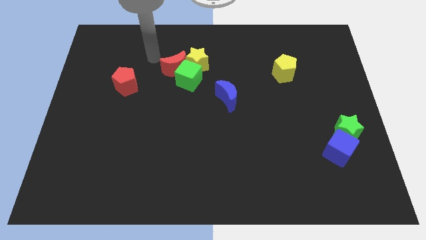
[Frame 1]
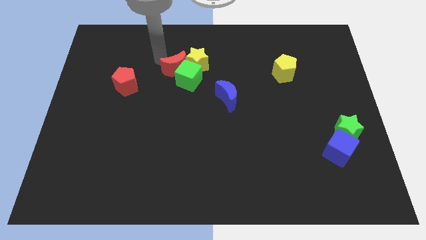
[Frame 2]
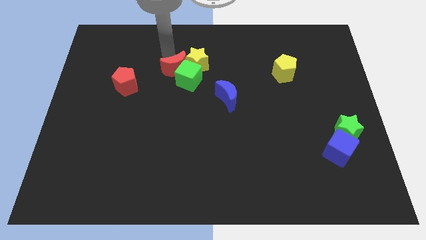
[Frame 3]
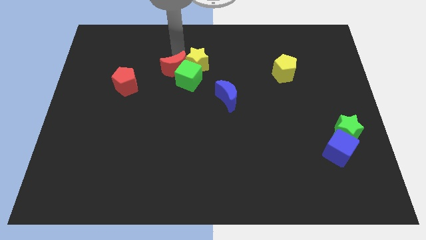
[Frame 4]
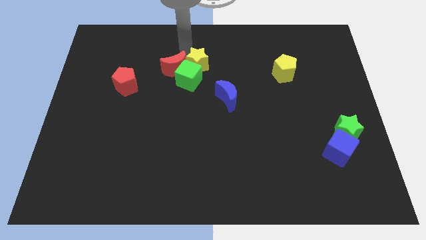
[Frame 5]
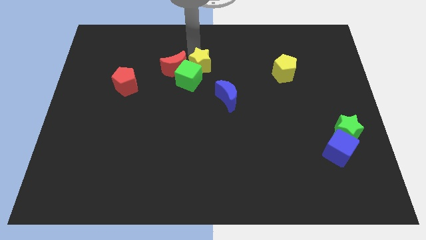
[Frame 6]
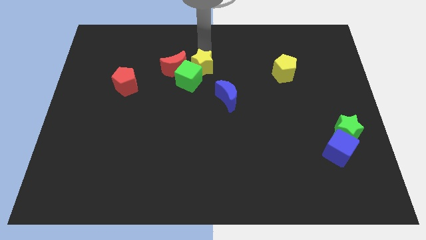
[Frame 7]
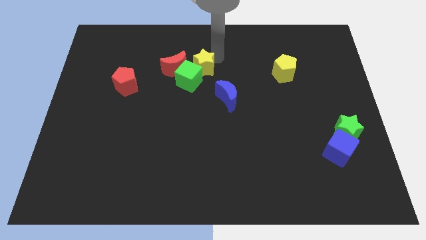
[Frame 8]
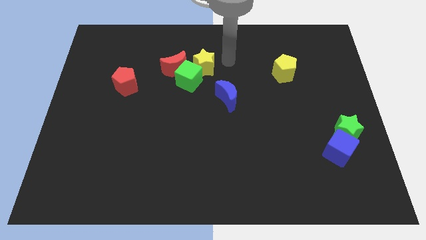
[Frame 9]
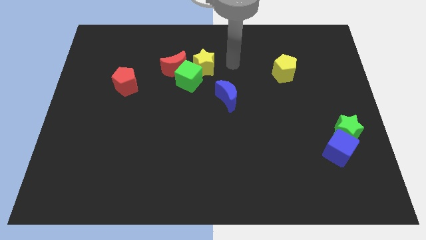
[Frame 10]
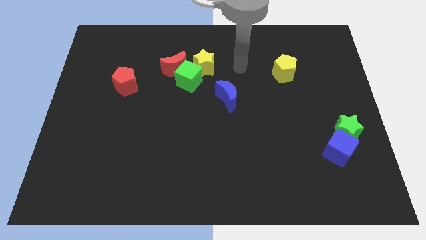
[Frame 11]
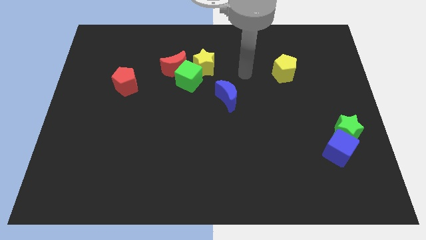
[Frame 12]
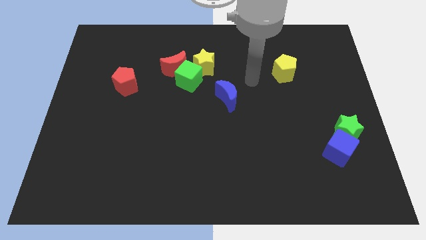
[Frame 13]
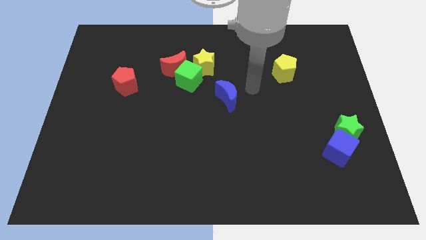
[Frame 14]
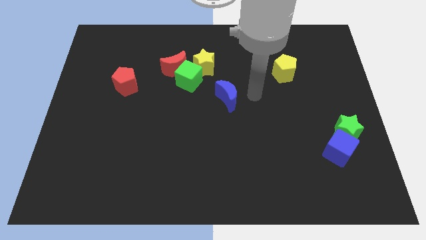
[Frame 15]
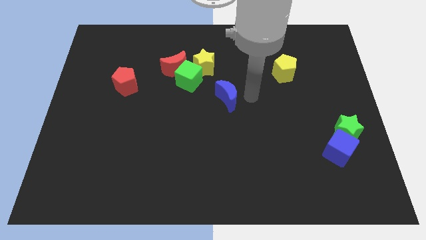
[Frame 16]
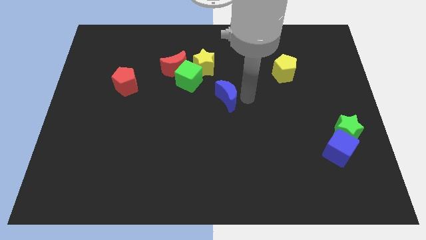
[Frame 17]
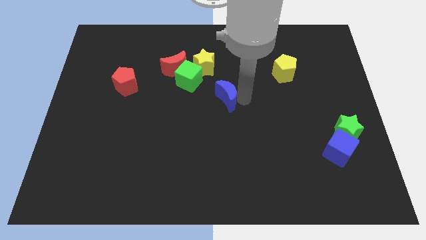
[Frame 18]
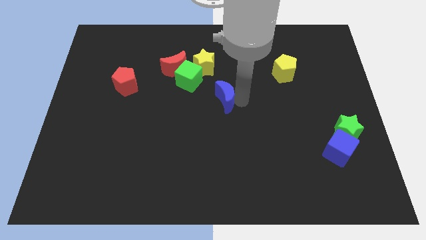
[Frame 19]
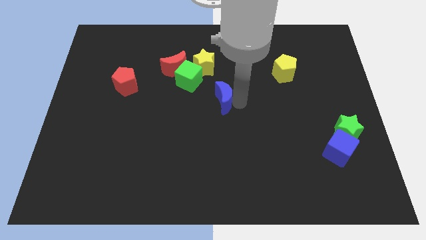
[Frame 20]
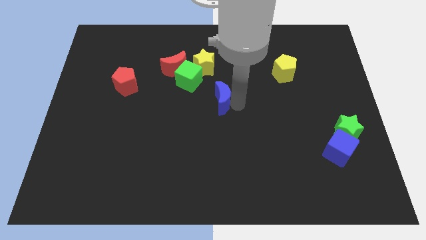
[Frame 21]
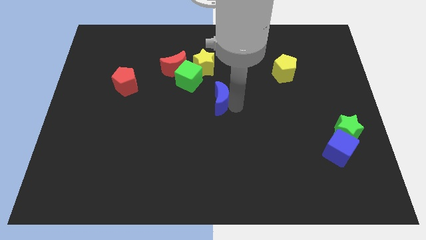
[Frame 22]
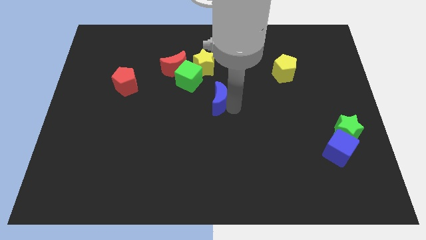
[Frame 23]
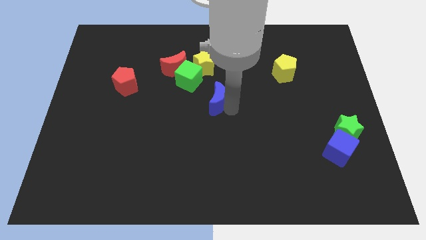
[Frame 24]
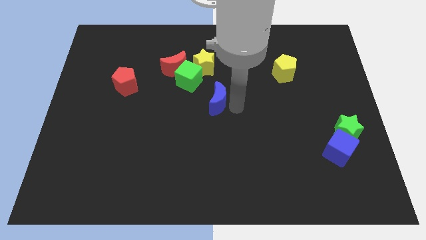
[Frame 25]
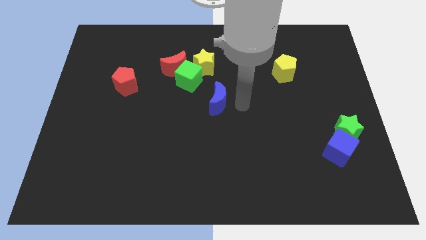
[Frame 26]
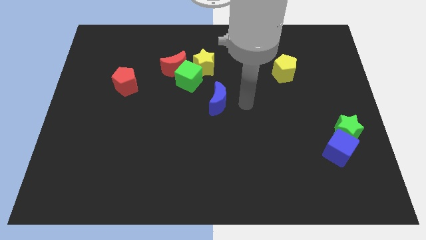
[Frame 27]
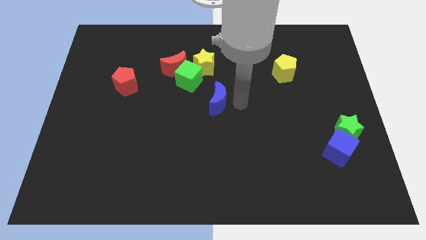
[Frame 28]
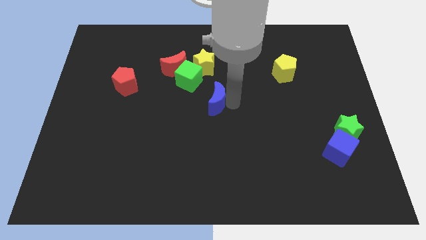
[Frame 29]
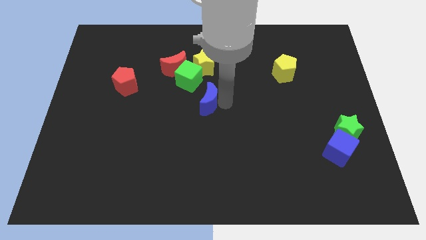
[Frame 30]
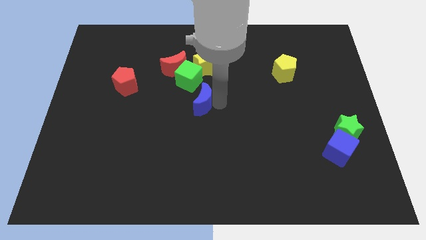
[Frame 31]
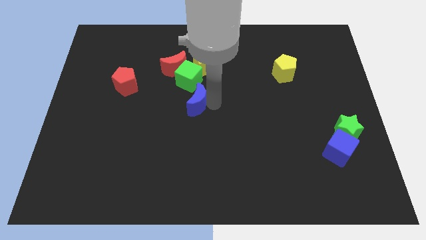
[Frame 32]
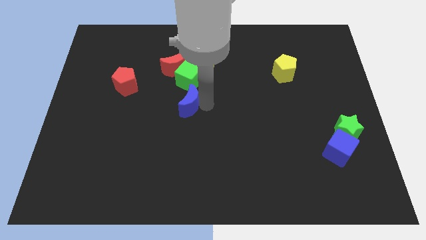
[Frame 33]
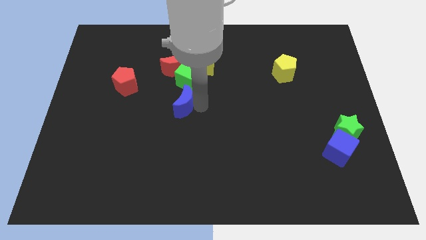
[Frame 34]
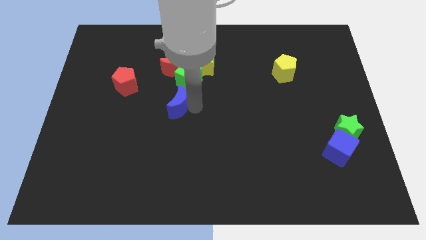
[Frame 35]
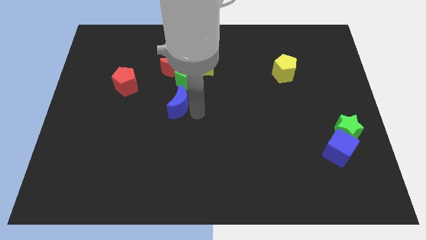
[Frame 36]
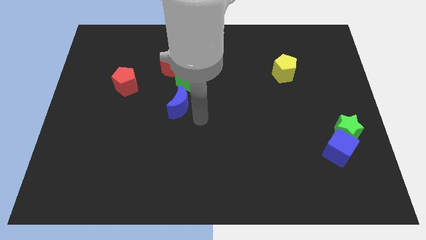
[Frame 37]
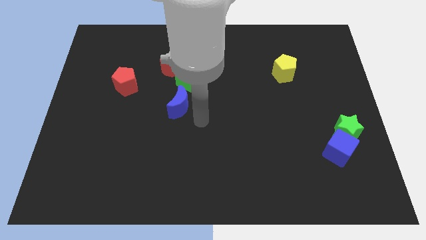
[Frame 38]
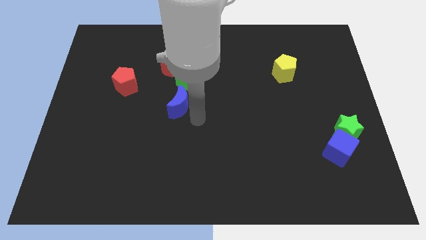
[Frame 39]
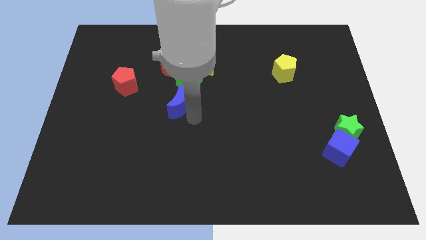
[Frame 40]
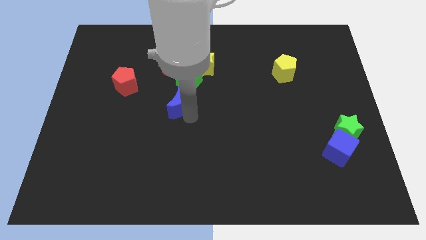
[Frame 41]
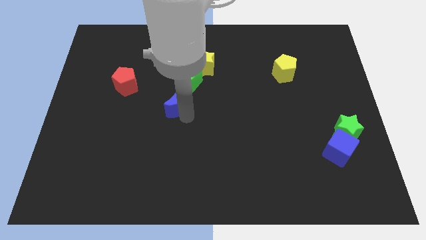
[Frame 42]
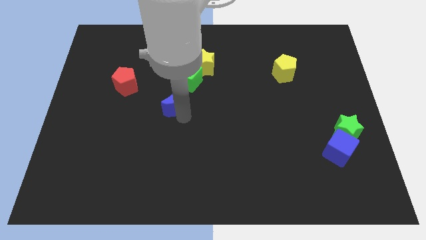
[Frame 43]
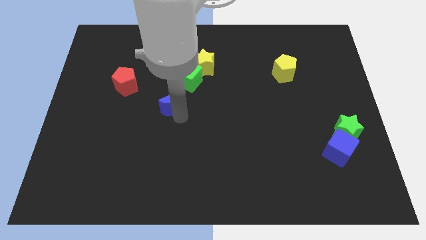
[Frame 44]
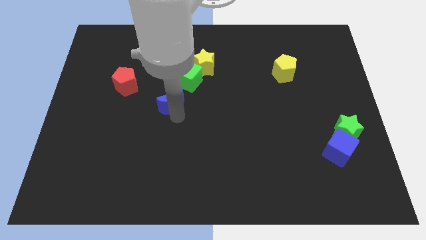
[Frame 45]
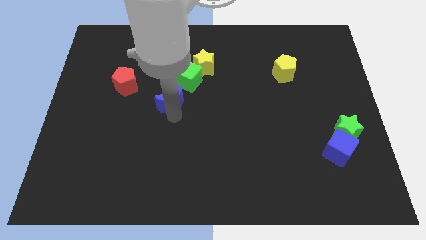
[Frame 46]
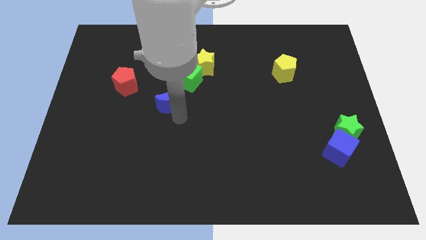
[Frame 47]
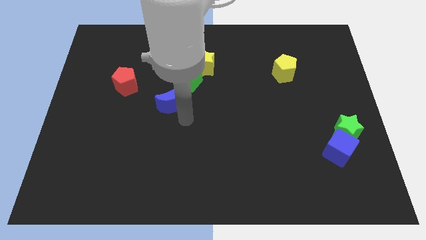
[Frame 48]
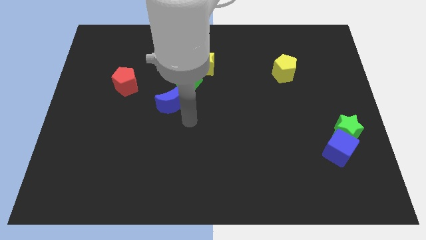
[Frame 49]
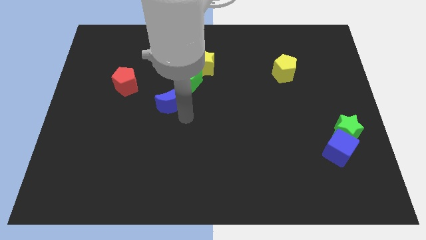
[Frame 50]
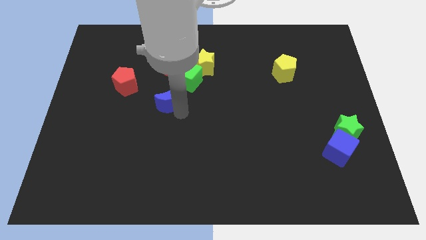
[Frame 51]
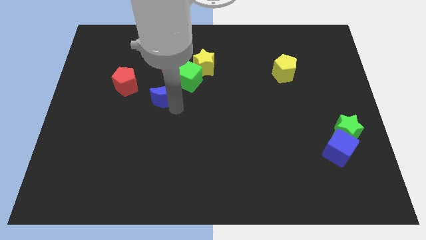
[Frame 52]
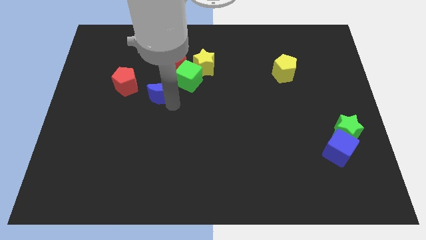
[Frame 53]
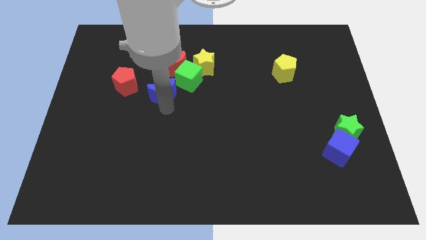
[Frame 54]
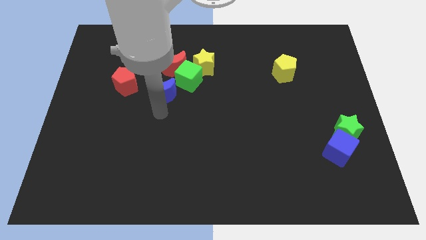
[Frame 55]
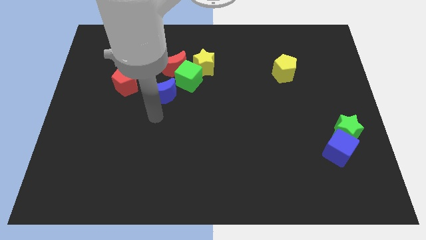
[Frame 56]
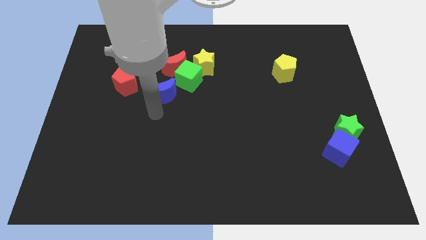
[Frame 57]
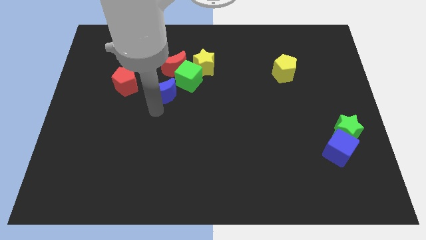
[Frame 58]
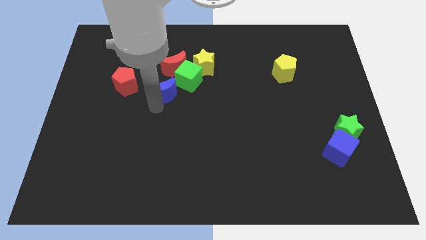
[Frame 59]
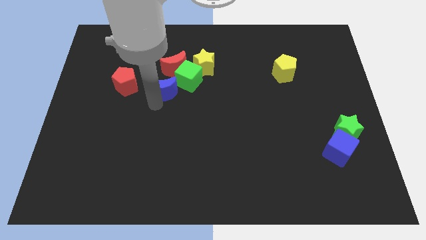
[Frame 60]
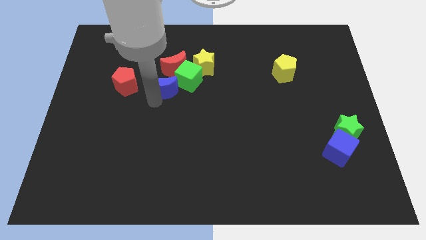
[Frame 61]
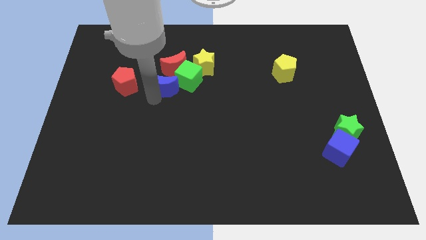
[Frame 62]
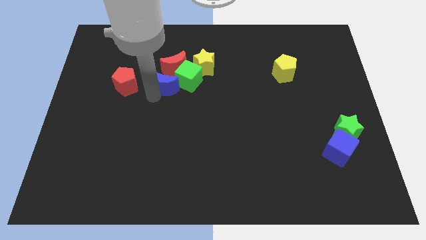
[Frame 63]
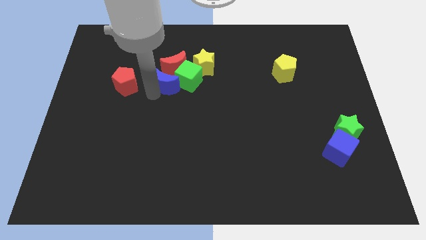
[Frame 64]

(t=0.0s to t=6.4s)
move the blue moon close to the red moon

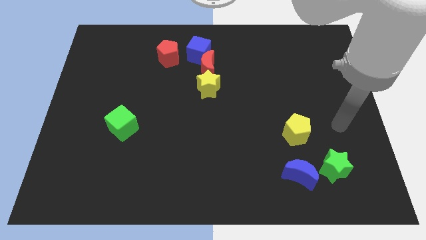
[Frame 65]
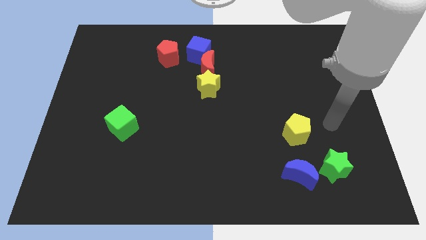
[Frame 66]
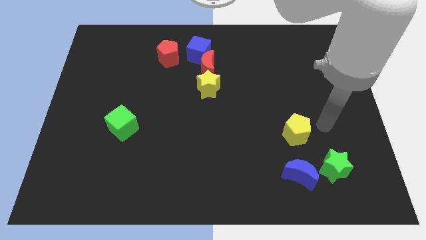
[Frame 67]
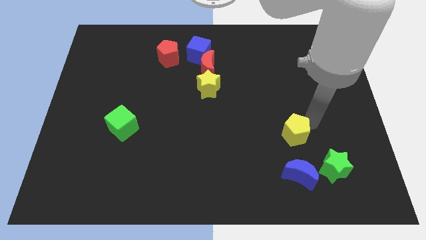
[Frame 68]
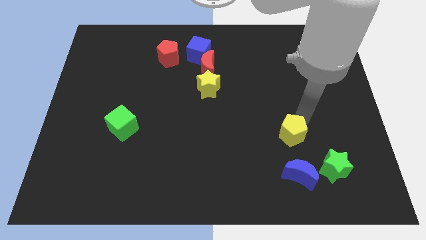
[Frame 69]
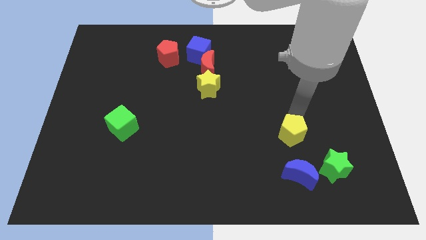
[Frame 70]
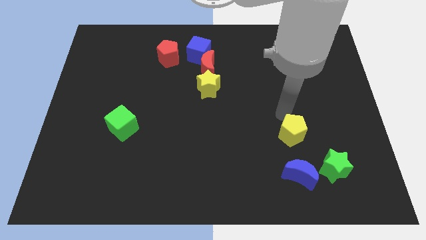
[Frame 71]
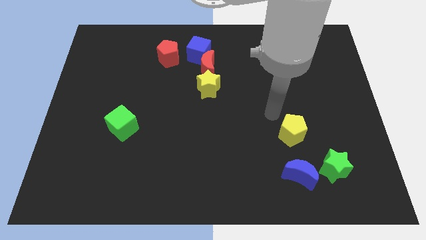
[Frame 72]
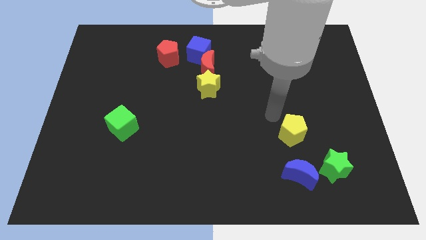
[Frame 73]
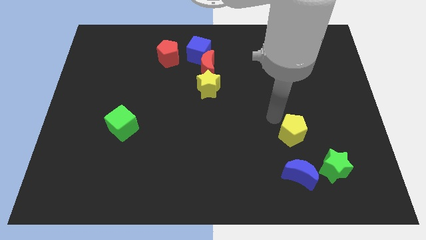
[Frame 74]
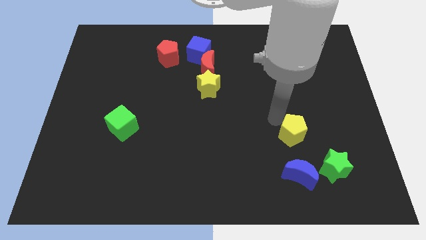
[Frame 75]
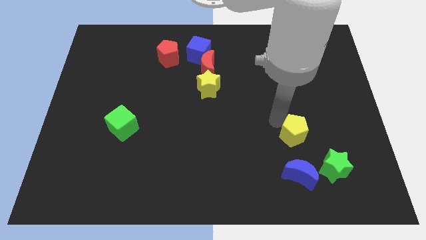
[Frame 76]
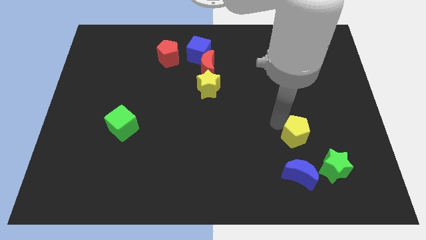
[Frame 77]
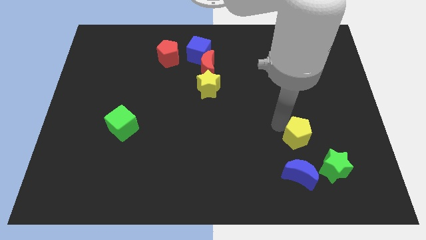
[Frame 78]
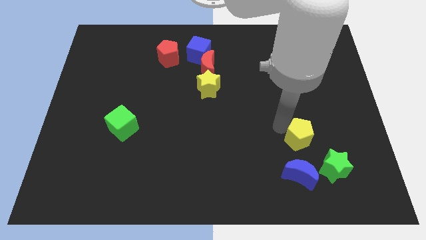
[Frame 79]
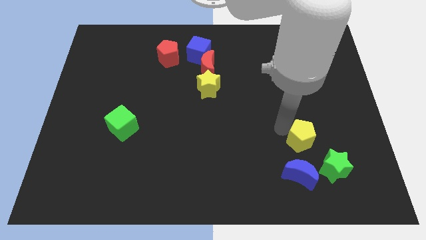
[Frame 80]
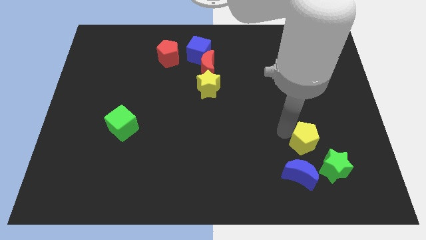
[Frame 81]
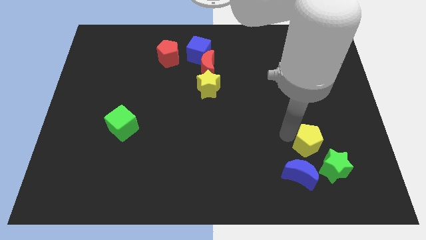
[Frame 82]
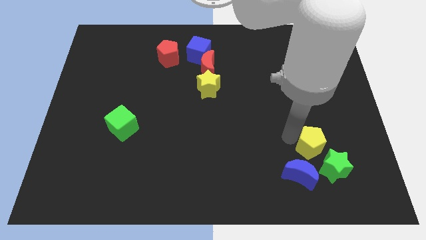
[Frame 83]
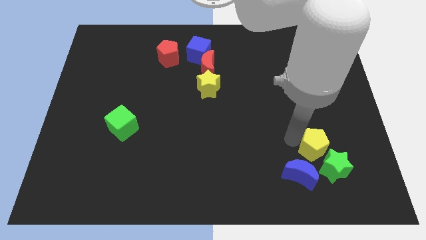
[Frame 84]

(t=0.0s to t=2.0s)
move the yellow pentagon towards the green star
